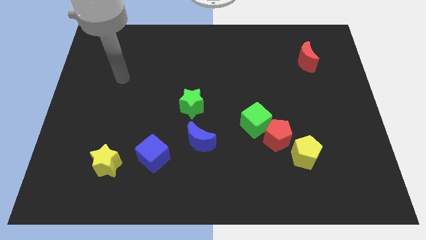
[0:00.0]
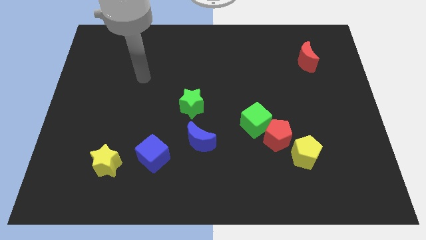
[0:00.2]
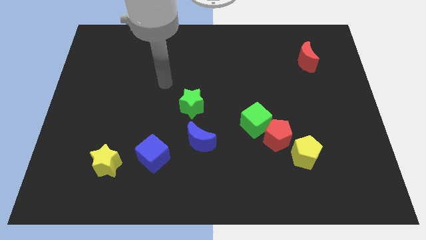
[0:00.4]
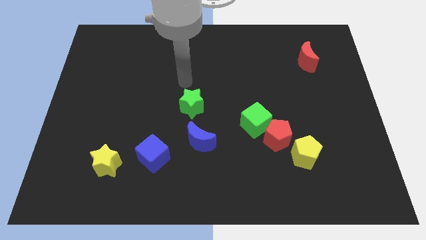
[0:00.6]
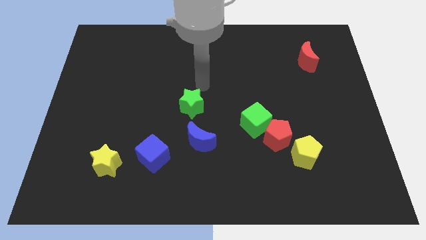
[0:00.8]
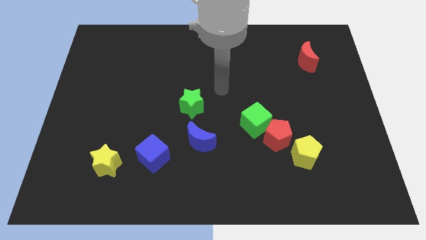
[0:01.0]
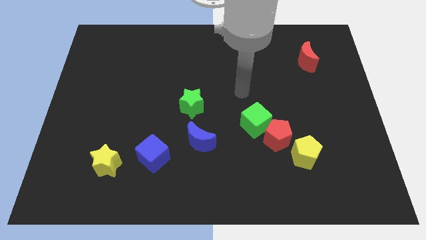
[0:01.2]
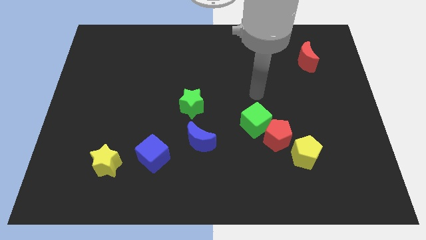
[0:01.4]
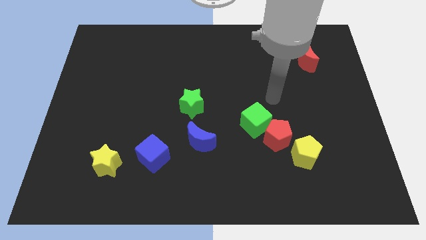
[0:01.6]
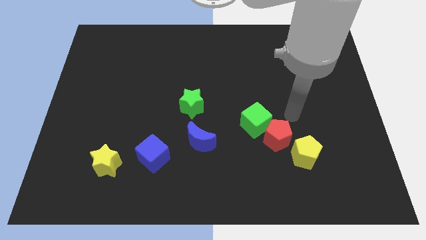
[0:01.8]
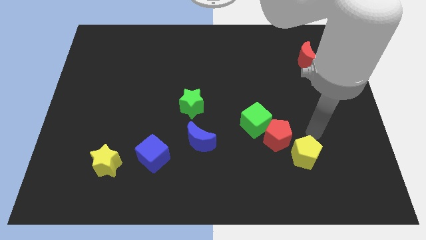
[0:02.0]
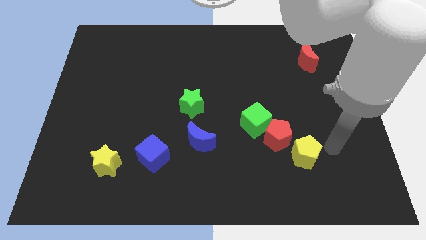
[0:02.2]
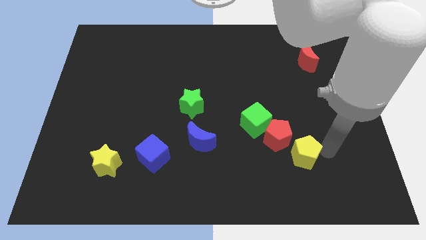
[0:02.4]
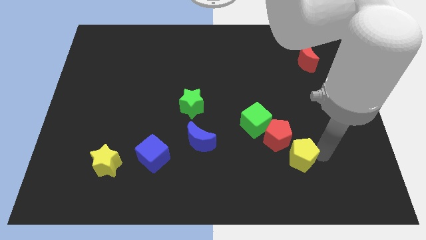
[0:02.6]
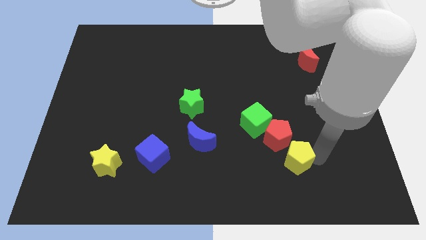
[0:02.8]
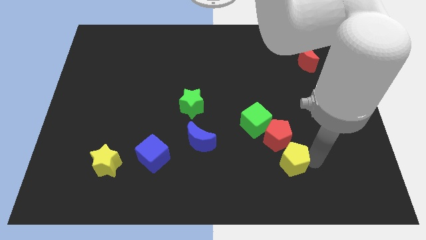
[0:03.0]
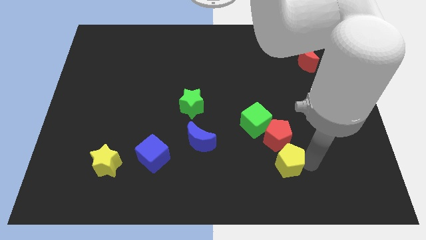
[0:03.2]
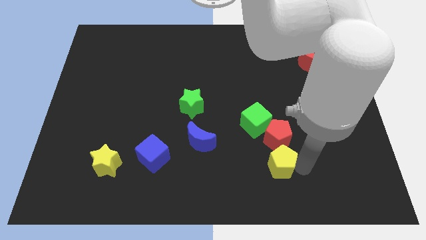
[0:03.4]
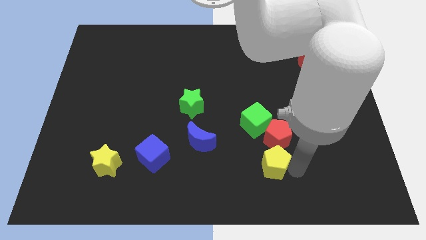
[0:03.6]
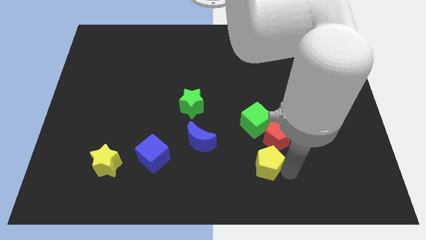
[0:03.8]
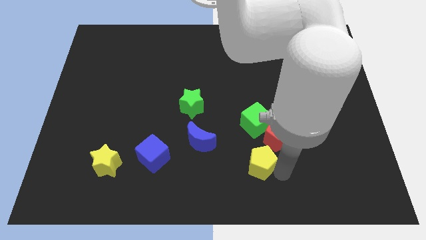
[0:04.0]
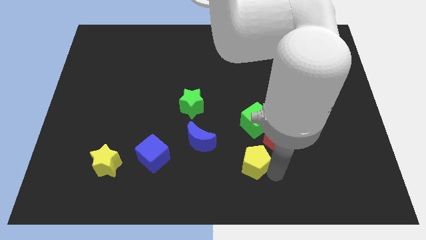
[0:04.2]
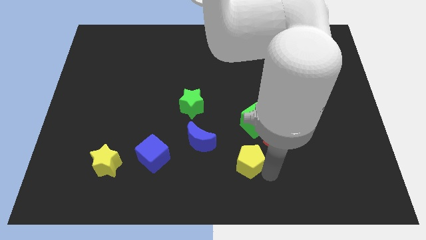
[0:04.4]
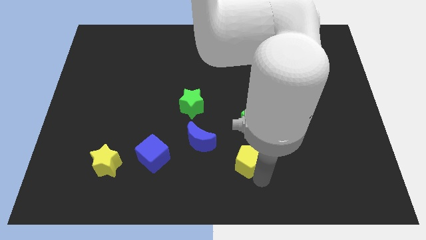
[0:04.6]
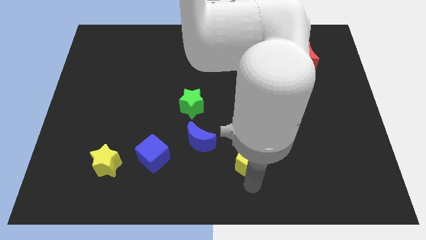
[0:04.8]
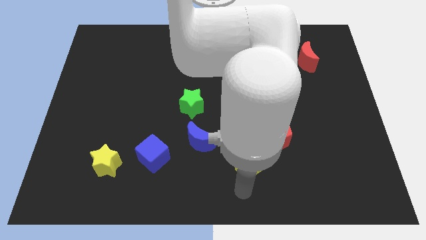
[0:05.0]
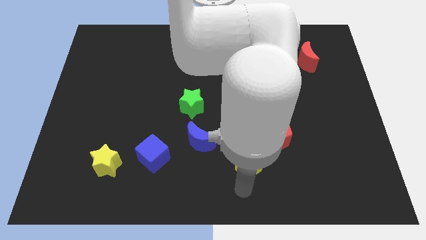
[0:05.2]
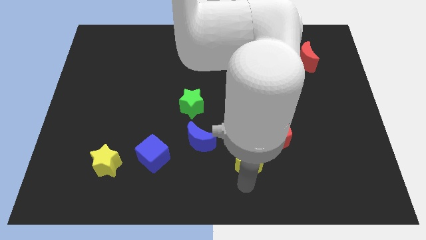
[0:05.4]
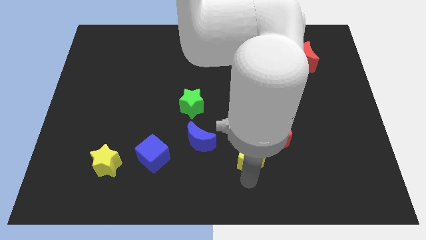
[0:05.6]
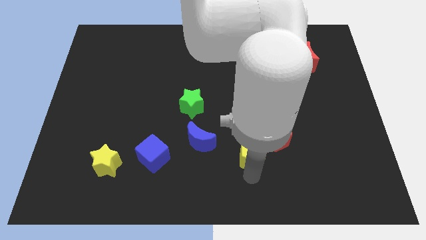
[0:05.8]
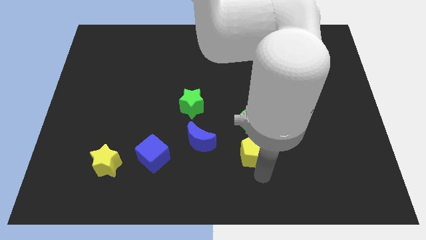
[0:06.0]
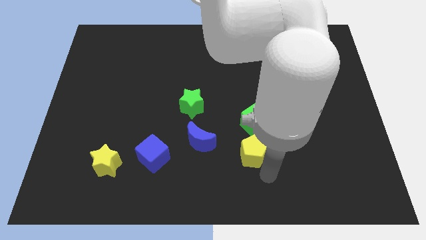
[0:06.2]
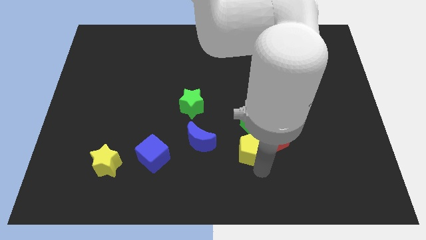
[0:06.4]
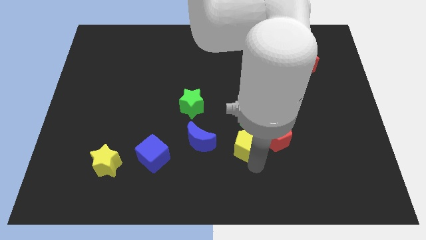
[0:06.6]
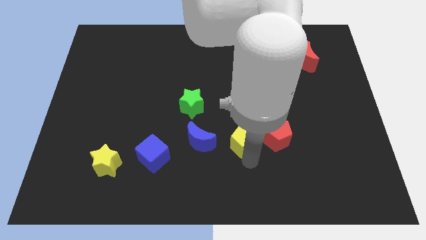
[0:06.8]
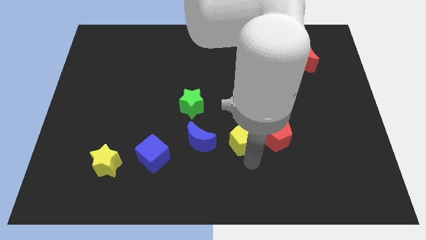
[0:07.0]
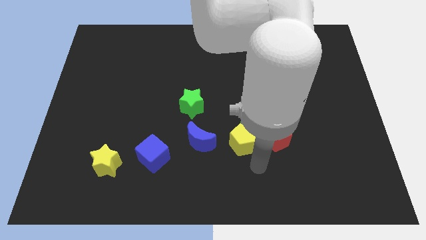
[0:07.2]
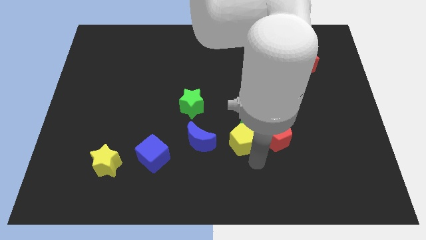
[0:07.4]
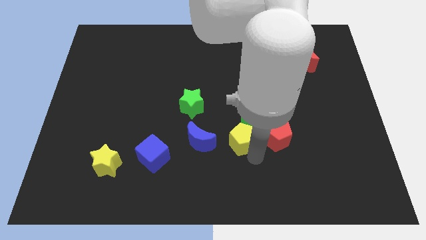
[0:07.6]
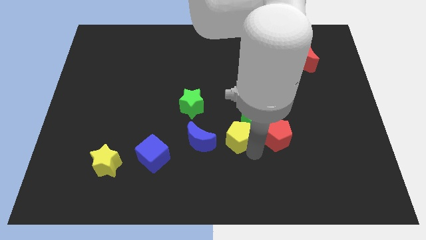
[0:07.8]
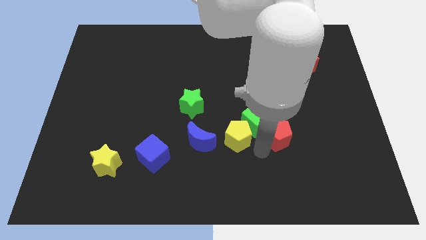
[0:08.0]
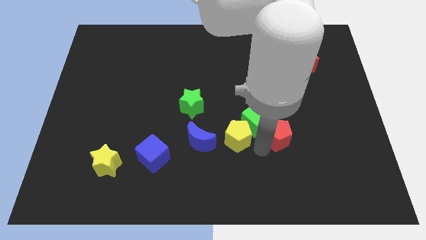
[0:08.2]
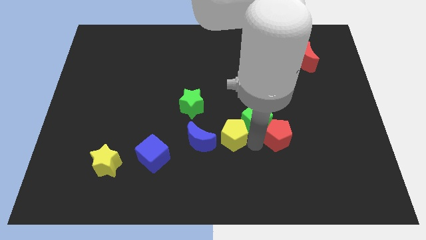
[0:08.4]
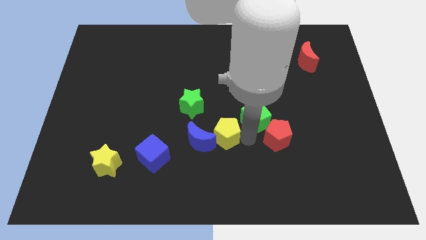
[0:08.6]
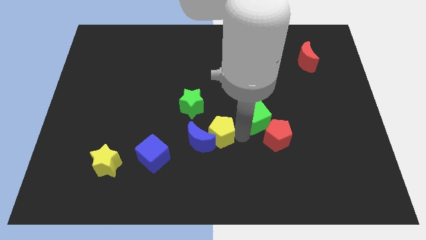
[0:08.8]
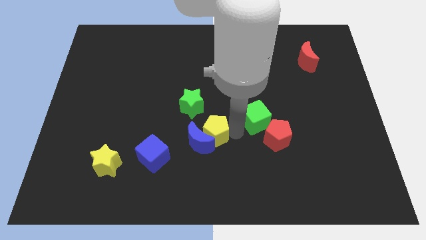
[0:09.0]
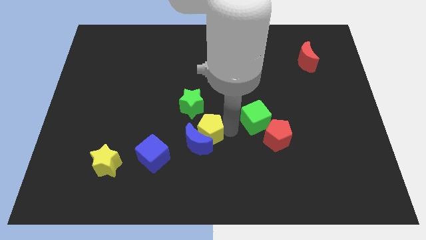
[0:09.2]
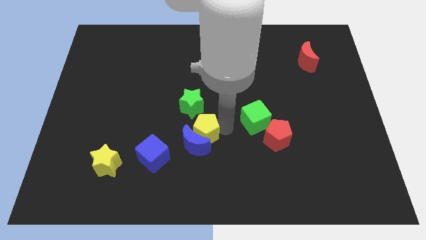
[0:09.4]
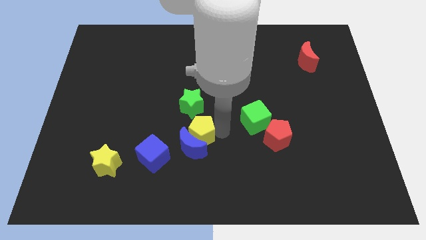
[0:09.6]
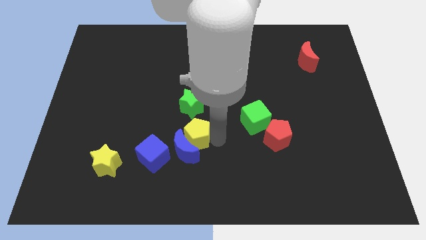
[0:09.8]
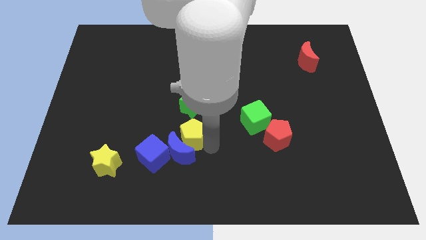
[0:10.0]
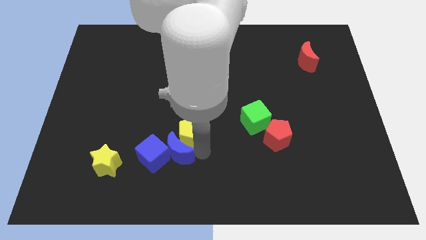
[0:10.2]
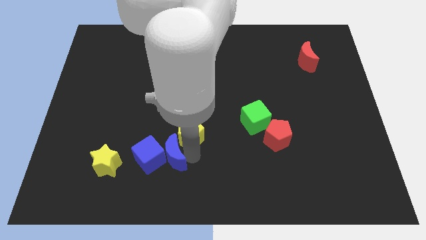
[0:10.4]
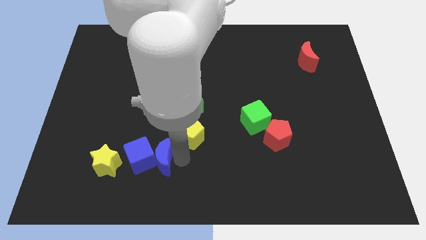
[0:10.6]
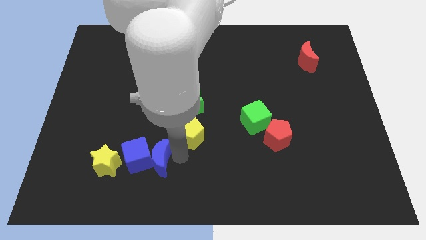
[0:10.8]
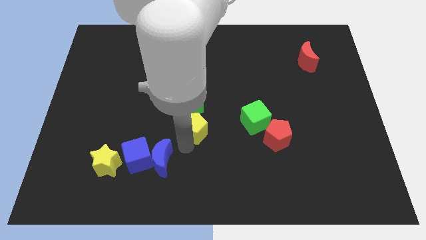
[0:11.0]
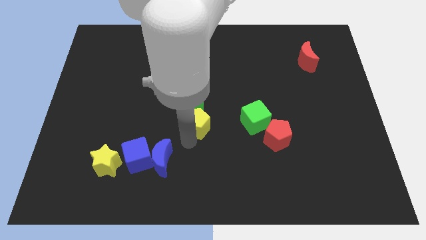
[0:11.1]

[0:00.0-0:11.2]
push the yellow pentagon to the bottom left of the green star
